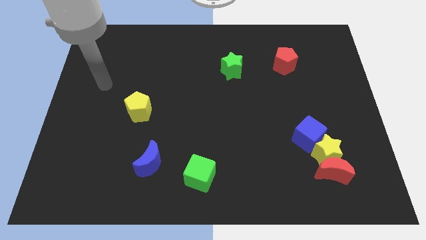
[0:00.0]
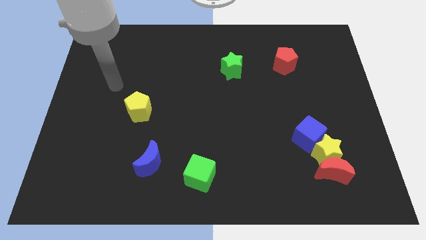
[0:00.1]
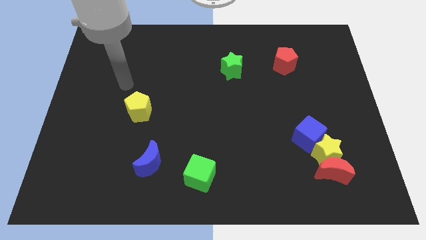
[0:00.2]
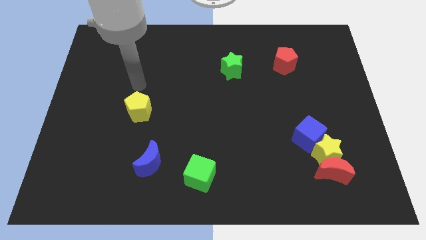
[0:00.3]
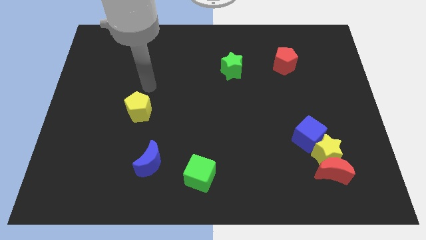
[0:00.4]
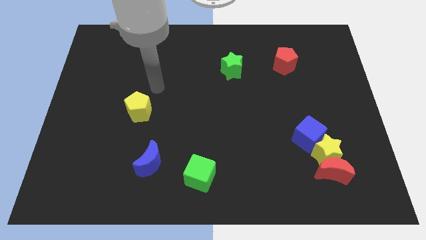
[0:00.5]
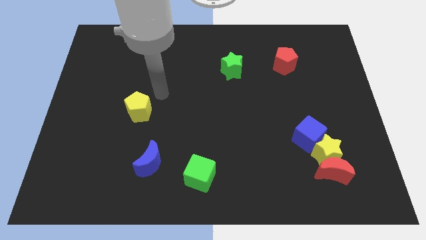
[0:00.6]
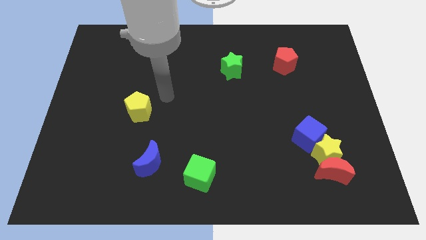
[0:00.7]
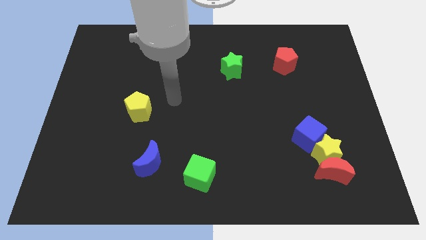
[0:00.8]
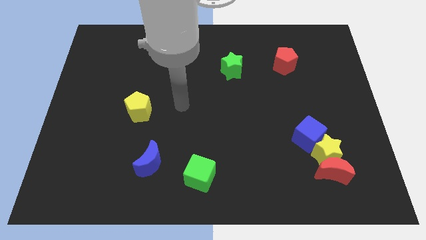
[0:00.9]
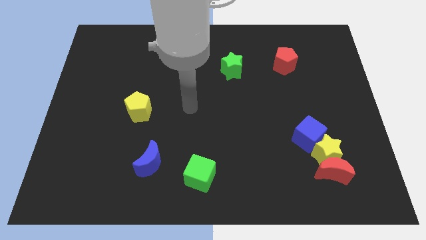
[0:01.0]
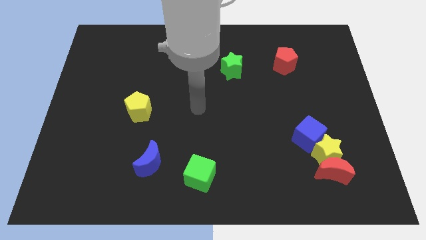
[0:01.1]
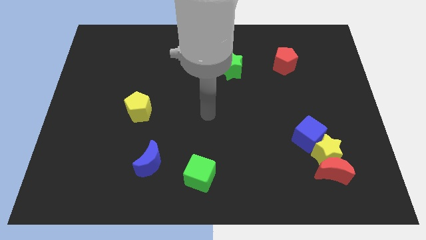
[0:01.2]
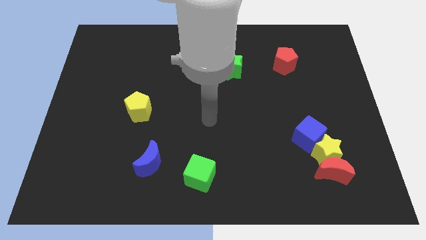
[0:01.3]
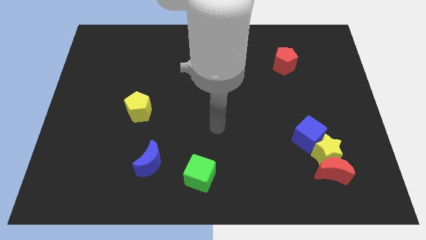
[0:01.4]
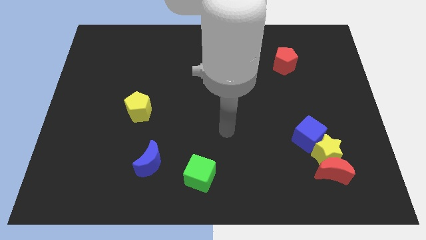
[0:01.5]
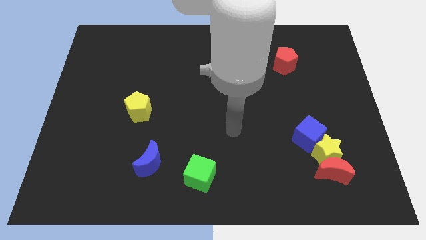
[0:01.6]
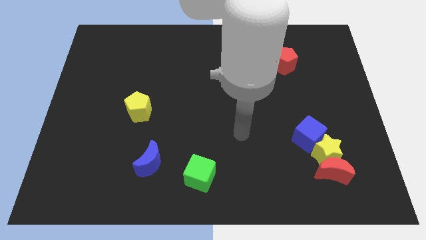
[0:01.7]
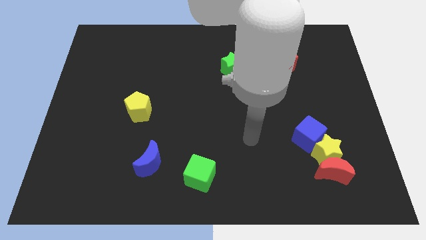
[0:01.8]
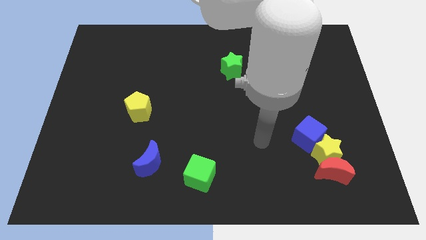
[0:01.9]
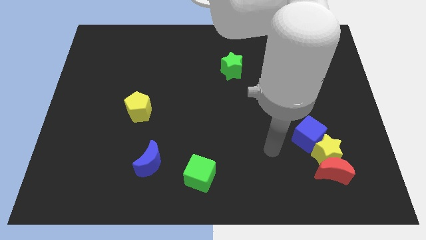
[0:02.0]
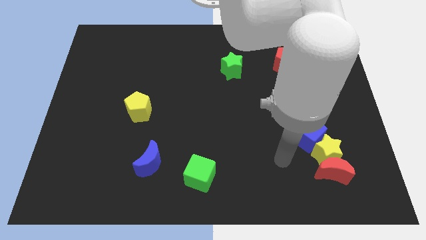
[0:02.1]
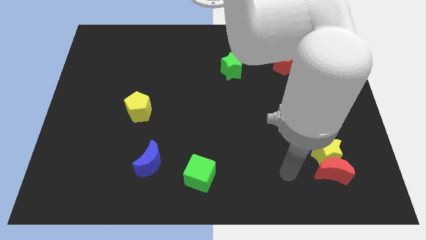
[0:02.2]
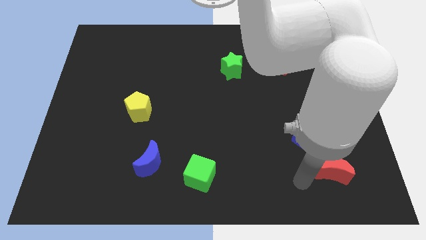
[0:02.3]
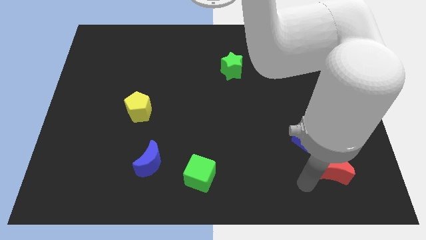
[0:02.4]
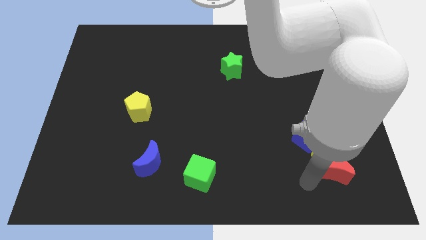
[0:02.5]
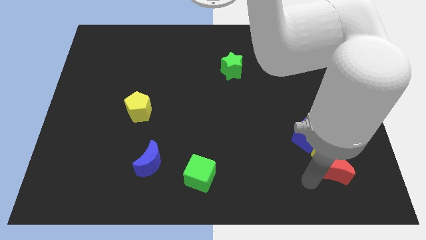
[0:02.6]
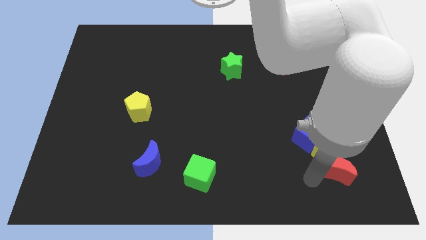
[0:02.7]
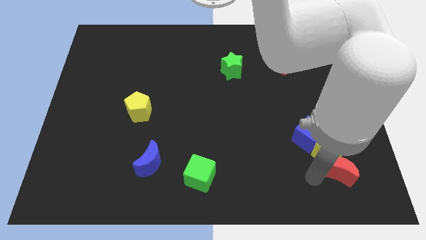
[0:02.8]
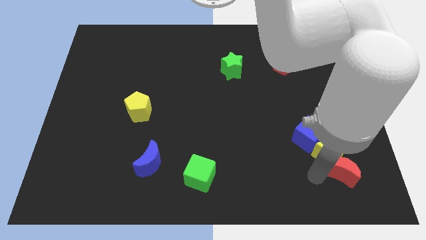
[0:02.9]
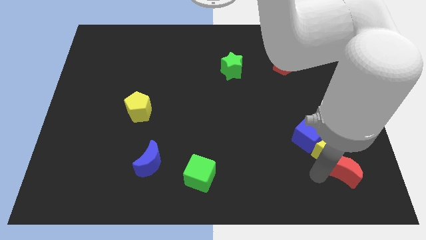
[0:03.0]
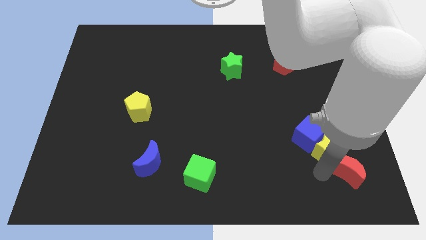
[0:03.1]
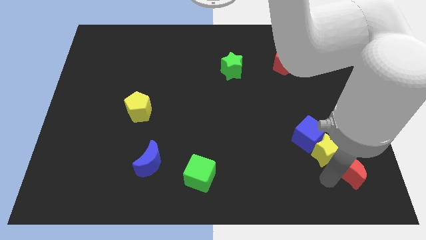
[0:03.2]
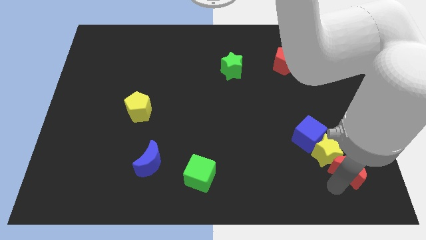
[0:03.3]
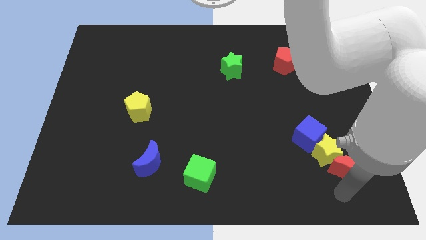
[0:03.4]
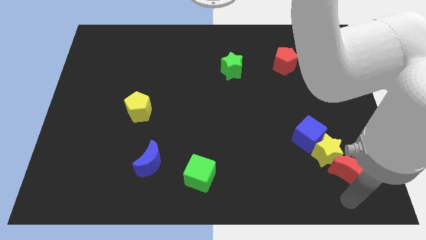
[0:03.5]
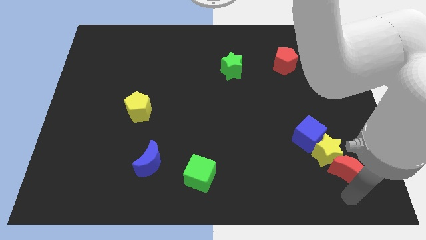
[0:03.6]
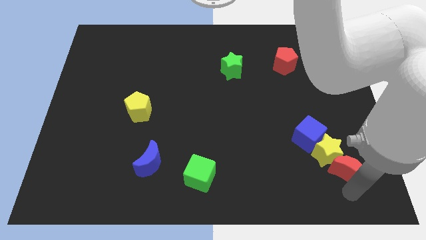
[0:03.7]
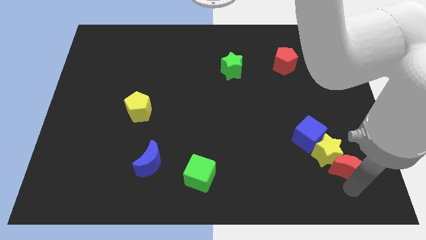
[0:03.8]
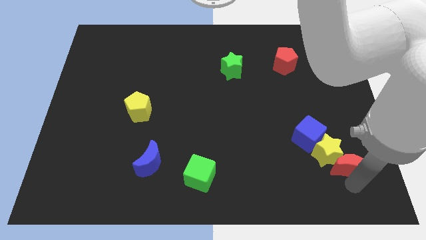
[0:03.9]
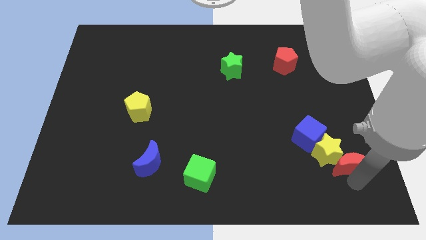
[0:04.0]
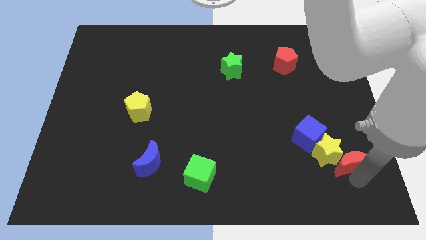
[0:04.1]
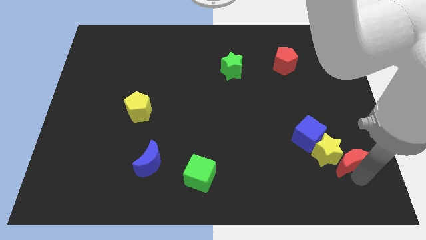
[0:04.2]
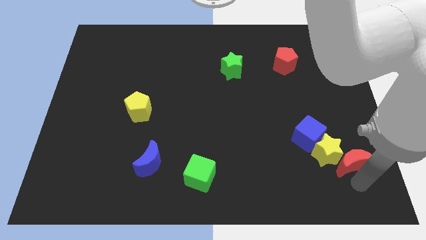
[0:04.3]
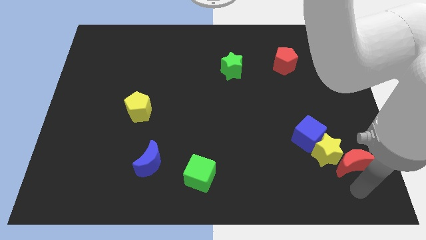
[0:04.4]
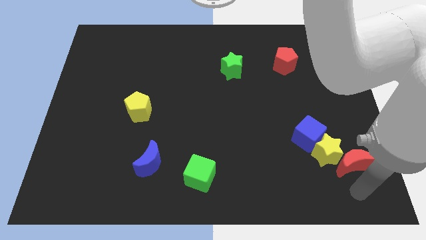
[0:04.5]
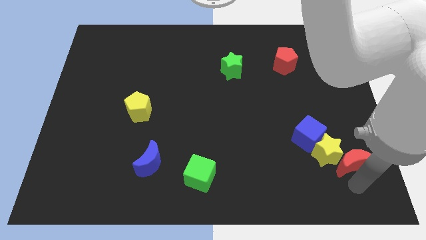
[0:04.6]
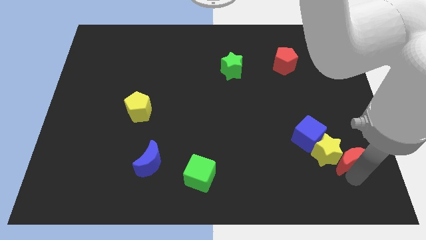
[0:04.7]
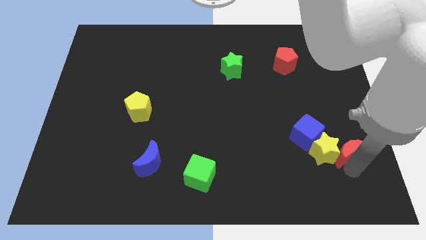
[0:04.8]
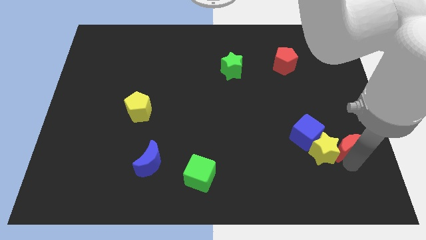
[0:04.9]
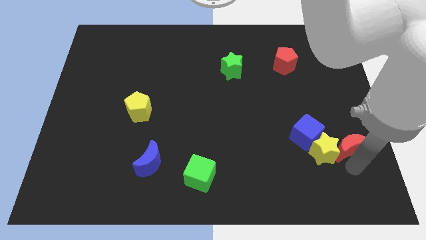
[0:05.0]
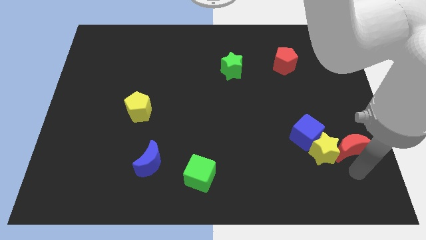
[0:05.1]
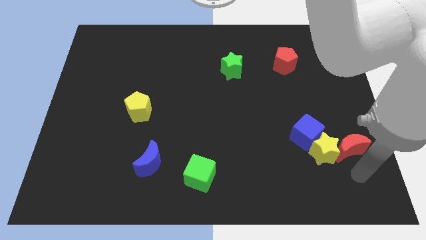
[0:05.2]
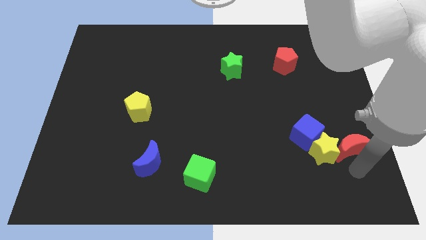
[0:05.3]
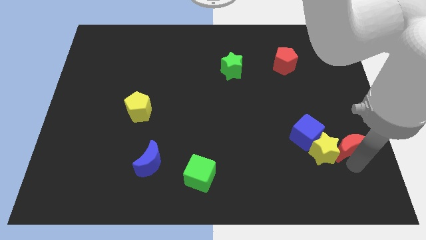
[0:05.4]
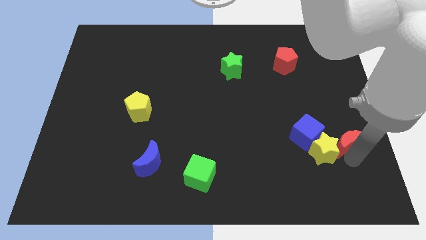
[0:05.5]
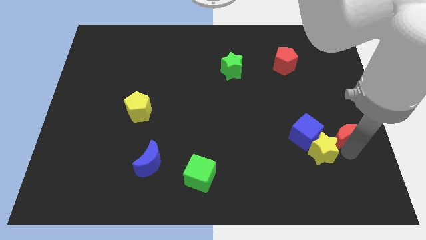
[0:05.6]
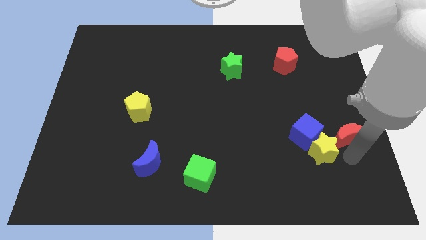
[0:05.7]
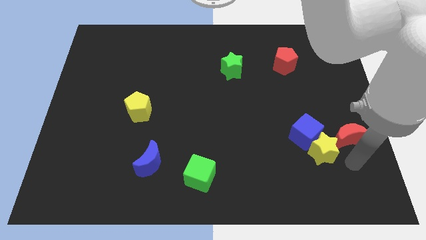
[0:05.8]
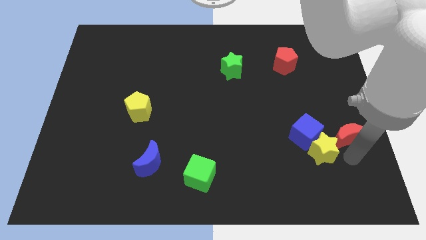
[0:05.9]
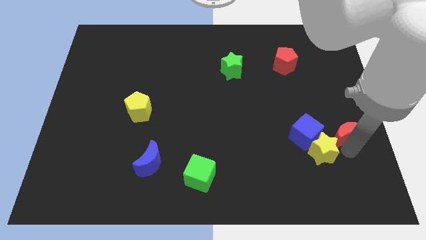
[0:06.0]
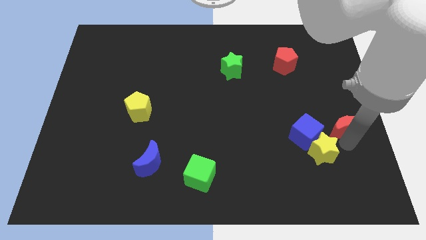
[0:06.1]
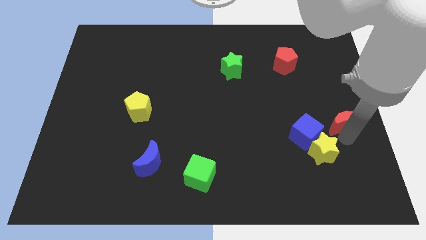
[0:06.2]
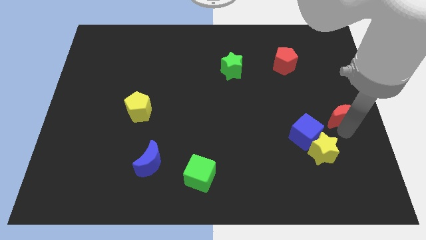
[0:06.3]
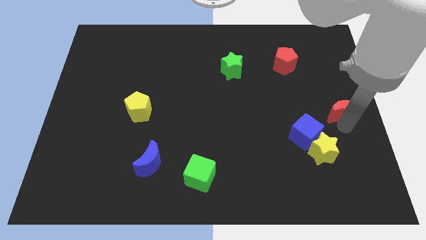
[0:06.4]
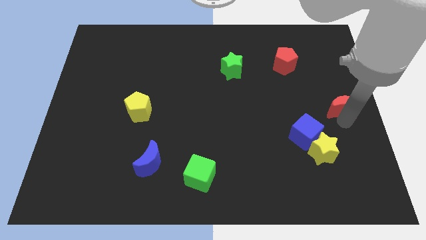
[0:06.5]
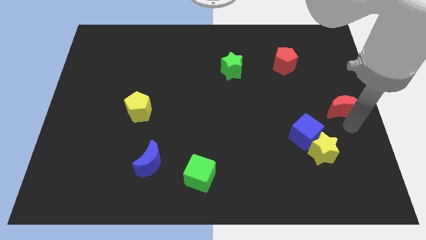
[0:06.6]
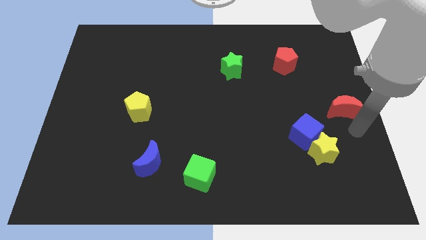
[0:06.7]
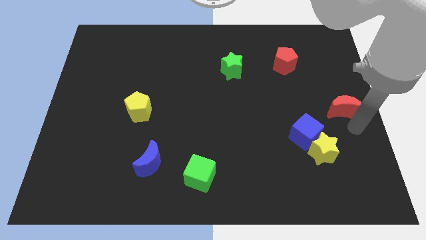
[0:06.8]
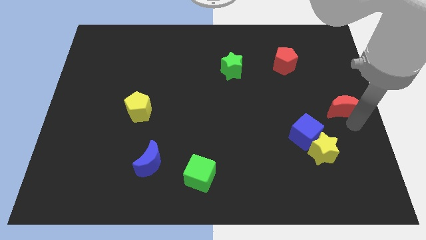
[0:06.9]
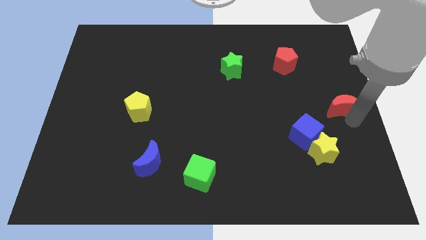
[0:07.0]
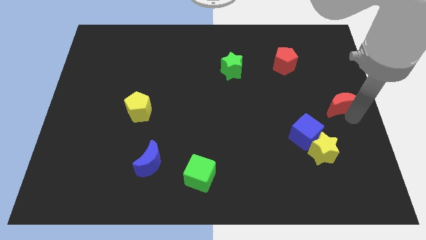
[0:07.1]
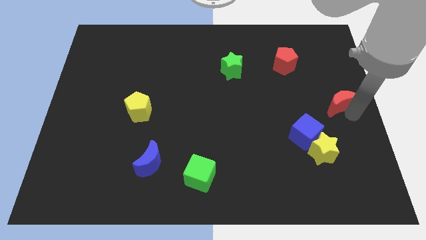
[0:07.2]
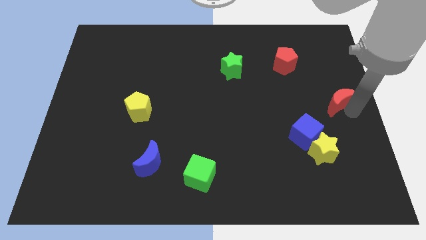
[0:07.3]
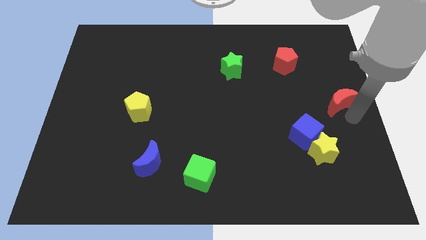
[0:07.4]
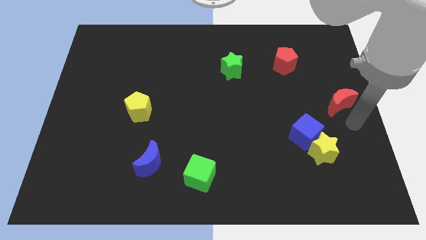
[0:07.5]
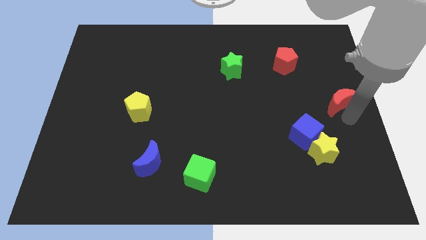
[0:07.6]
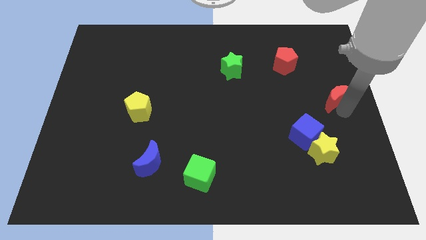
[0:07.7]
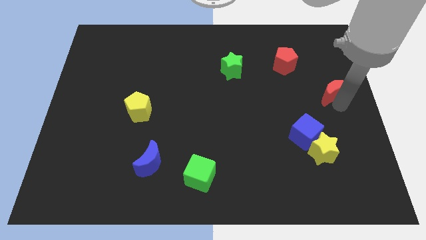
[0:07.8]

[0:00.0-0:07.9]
slide the red moon up

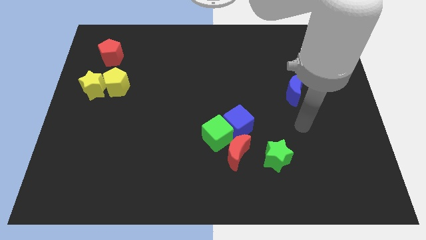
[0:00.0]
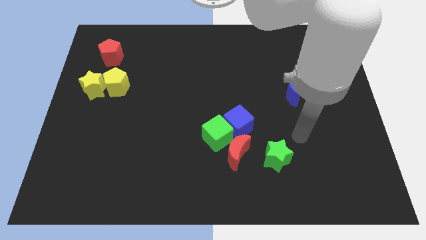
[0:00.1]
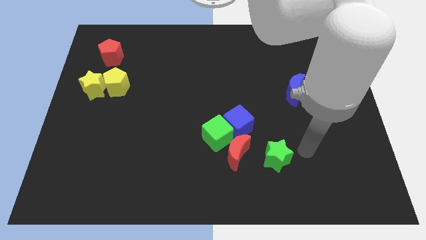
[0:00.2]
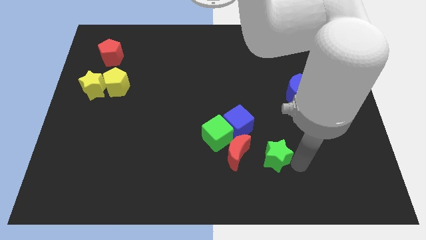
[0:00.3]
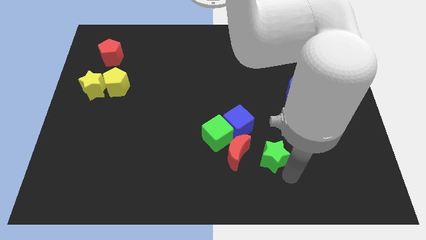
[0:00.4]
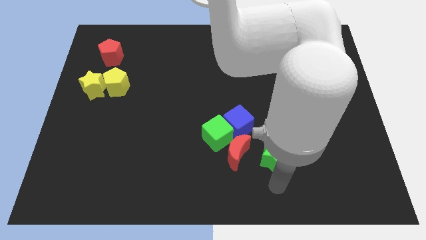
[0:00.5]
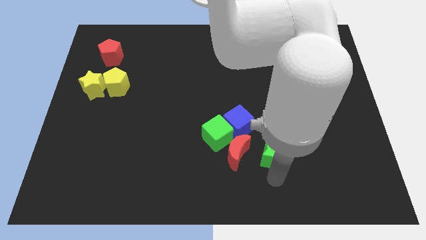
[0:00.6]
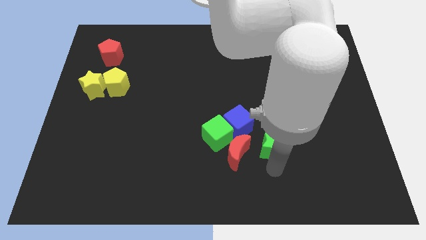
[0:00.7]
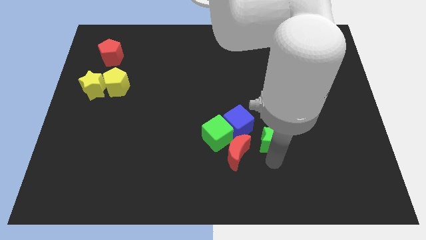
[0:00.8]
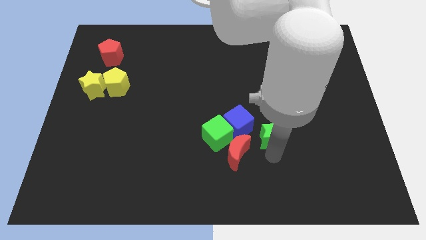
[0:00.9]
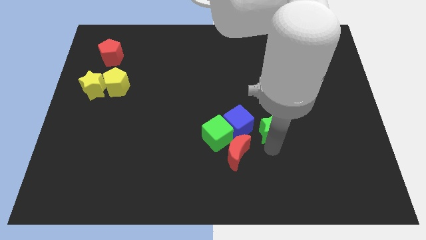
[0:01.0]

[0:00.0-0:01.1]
move the green star up slightly
